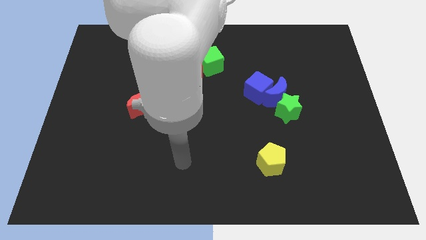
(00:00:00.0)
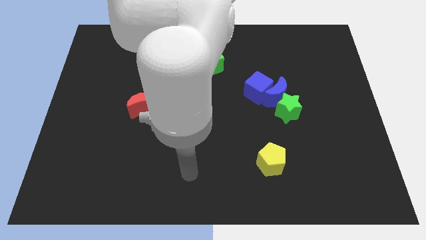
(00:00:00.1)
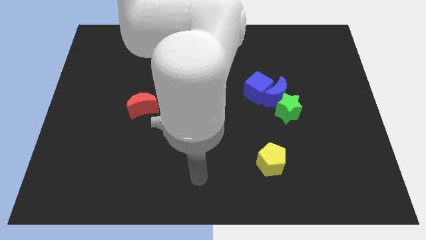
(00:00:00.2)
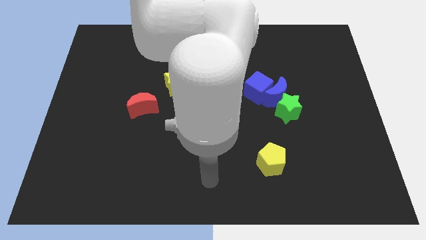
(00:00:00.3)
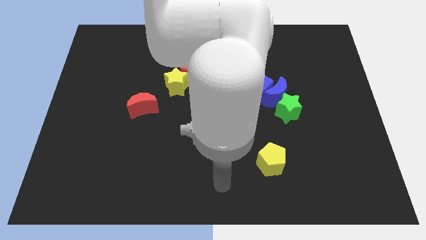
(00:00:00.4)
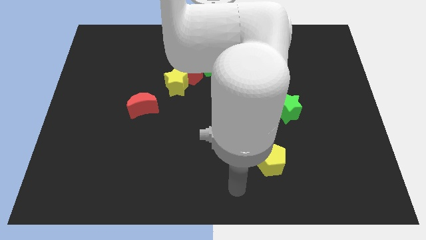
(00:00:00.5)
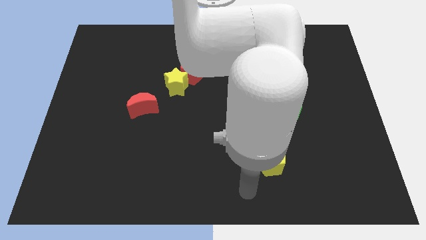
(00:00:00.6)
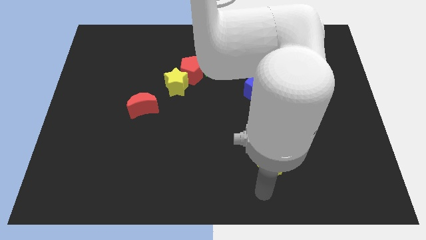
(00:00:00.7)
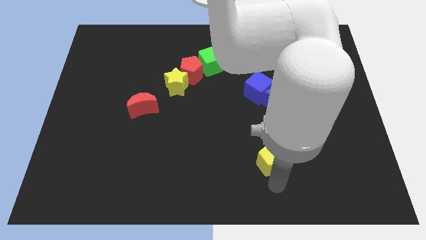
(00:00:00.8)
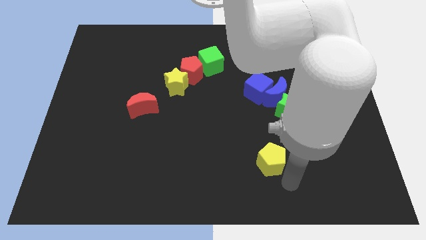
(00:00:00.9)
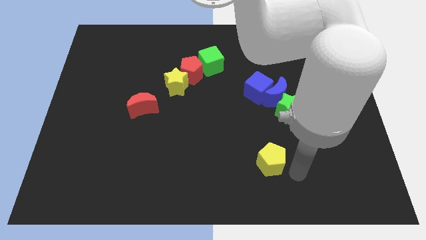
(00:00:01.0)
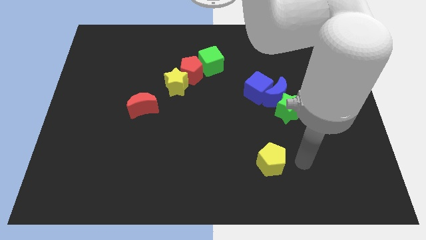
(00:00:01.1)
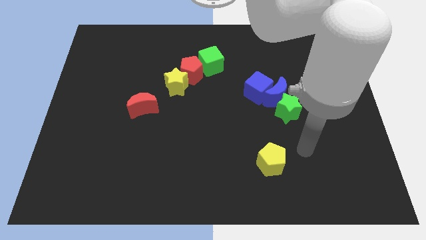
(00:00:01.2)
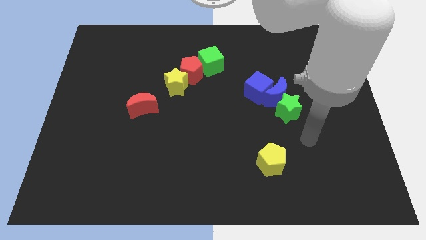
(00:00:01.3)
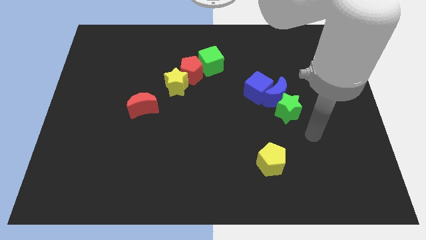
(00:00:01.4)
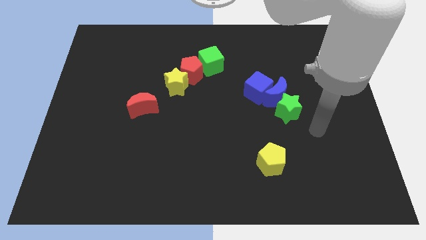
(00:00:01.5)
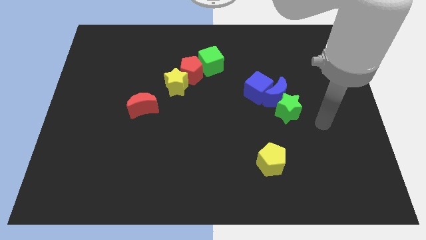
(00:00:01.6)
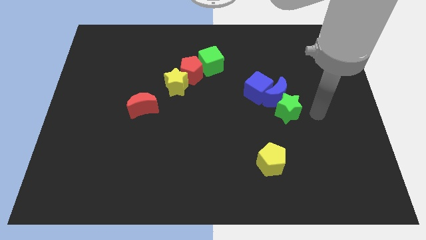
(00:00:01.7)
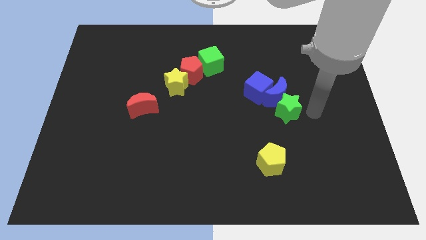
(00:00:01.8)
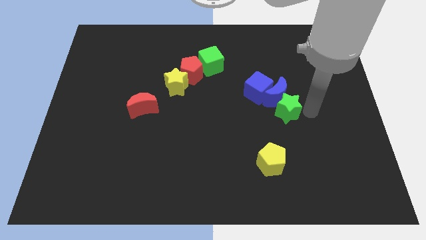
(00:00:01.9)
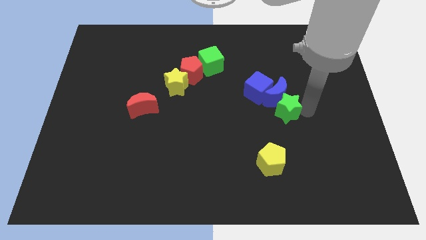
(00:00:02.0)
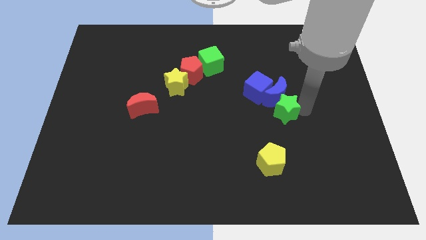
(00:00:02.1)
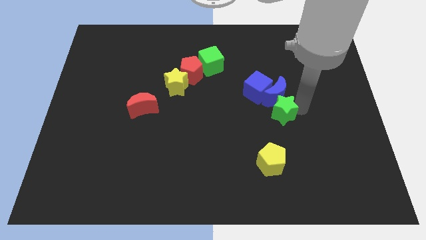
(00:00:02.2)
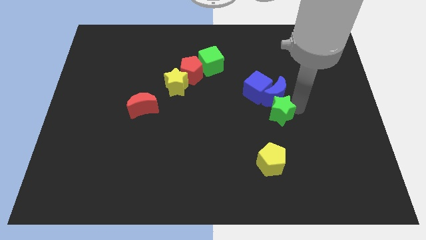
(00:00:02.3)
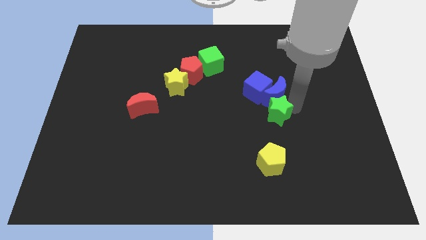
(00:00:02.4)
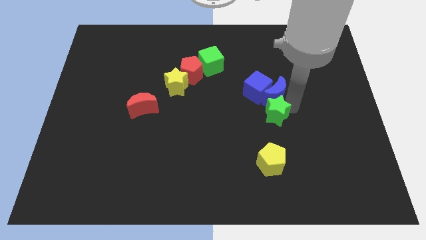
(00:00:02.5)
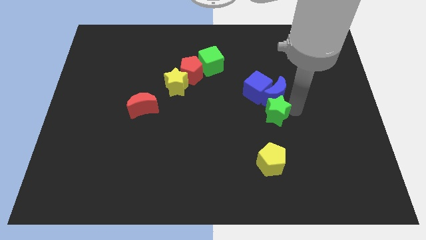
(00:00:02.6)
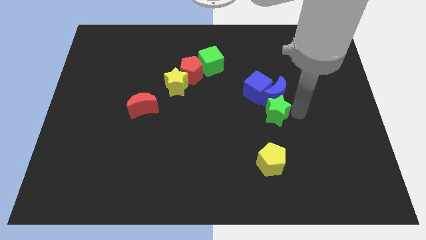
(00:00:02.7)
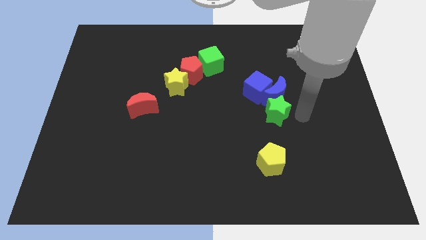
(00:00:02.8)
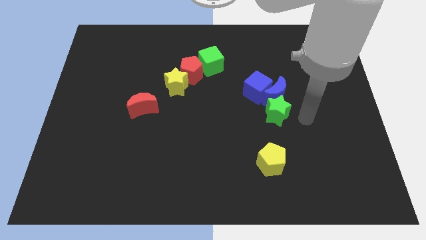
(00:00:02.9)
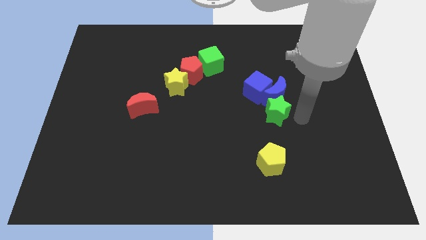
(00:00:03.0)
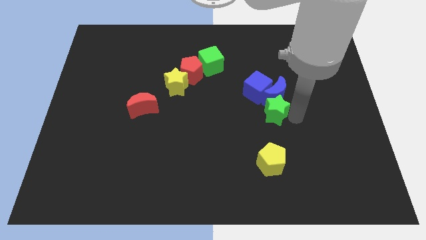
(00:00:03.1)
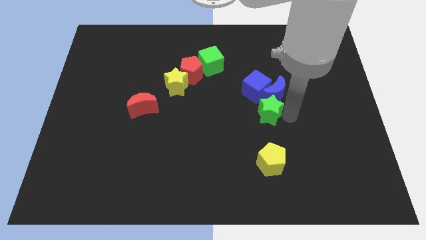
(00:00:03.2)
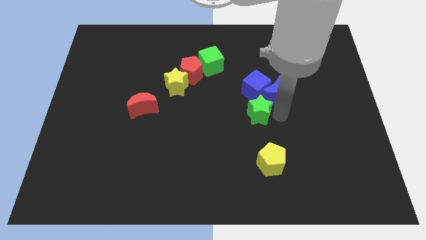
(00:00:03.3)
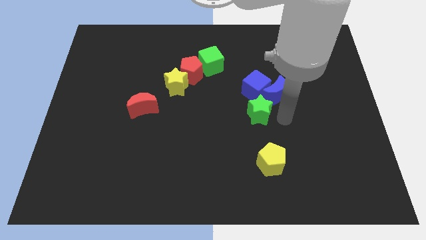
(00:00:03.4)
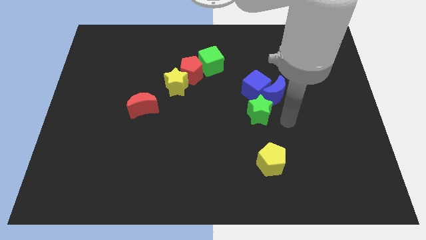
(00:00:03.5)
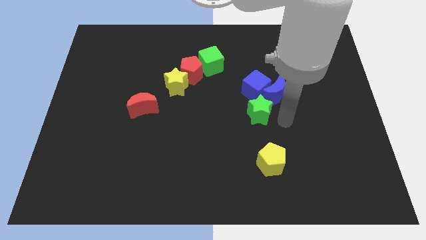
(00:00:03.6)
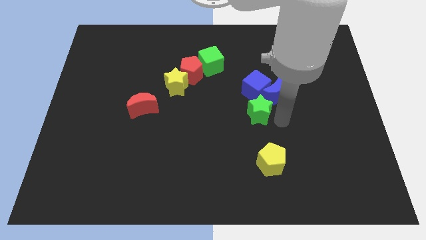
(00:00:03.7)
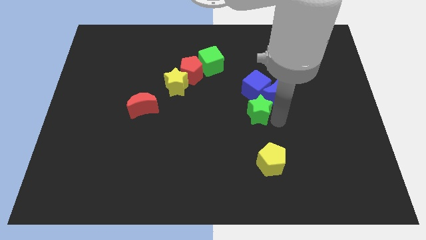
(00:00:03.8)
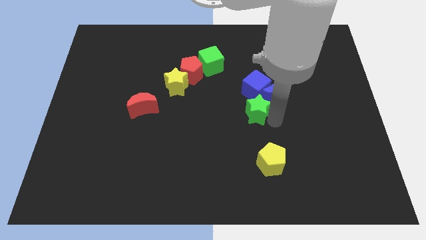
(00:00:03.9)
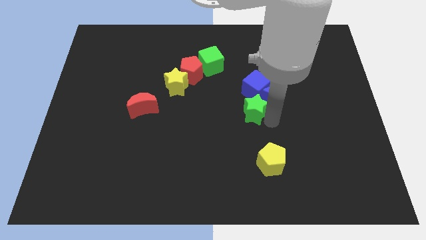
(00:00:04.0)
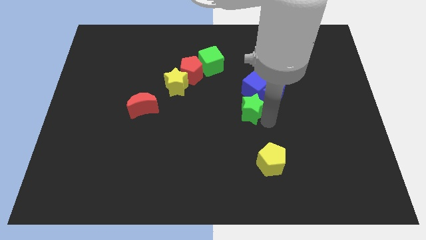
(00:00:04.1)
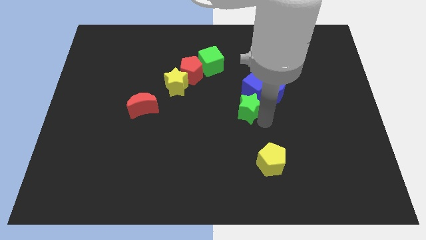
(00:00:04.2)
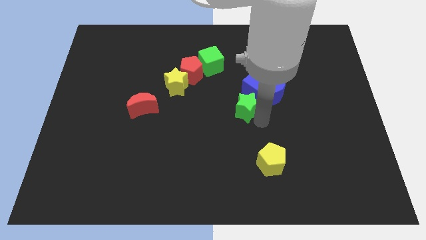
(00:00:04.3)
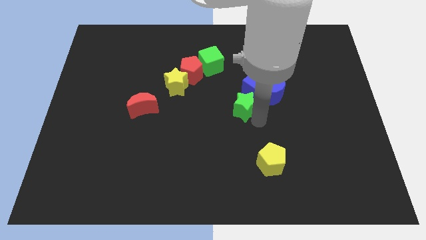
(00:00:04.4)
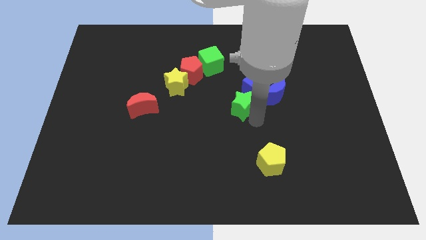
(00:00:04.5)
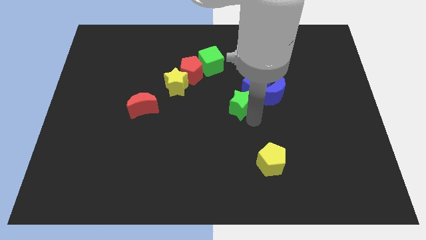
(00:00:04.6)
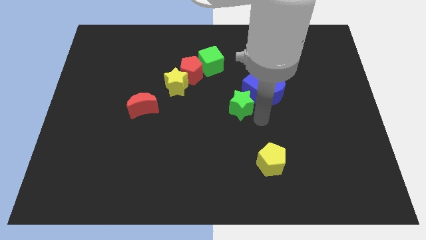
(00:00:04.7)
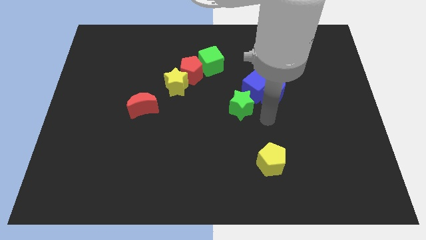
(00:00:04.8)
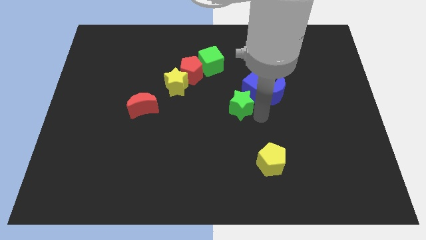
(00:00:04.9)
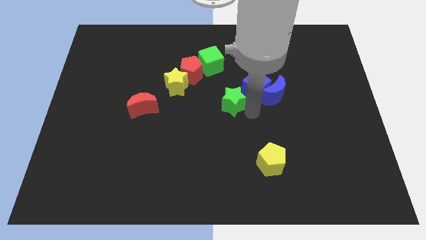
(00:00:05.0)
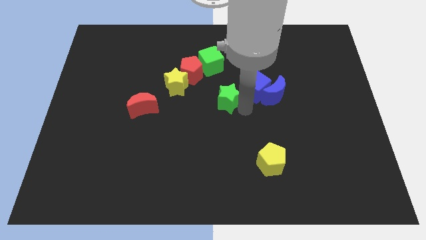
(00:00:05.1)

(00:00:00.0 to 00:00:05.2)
slide the green star below the green cube

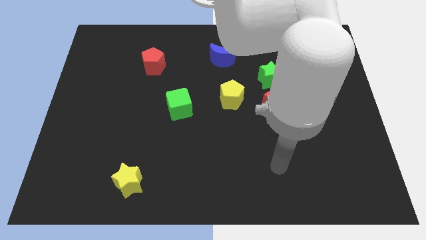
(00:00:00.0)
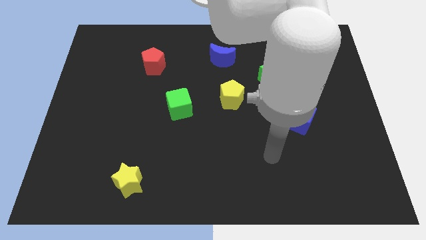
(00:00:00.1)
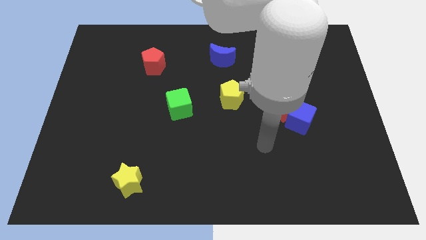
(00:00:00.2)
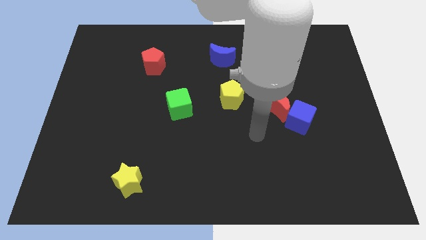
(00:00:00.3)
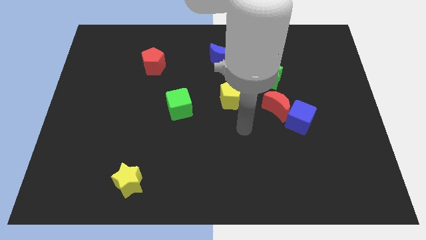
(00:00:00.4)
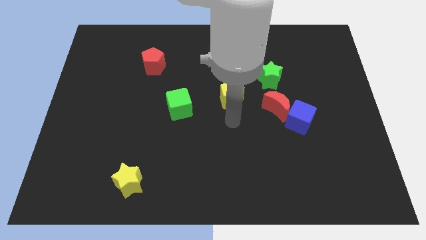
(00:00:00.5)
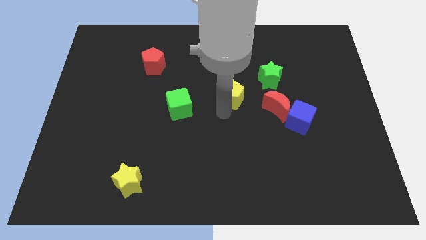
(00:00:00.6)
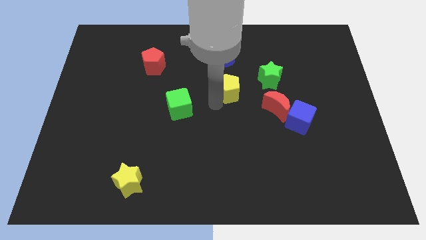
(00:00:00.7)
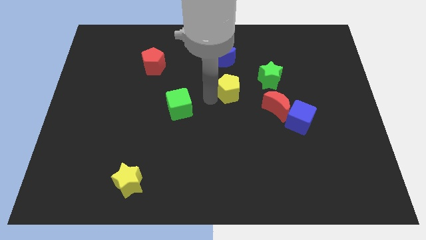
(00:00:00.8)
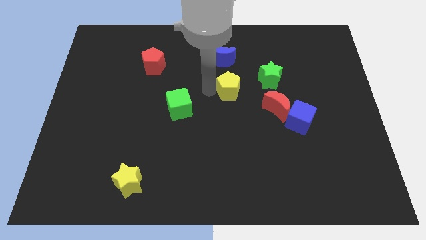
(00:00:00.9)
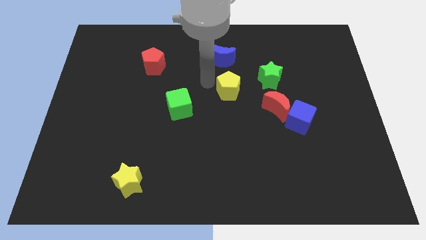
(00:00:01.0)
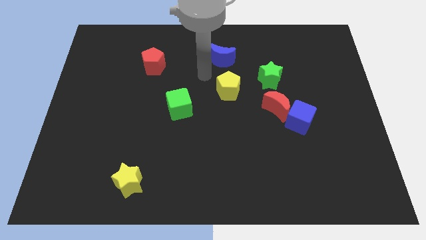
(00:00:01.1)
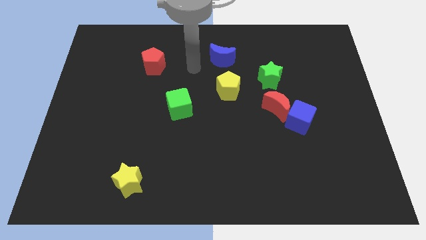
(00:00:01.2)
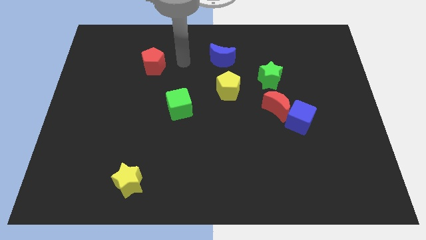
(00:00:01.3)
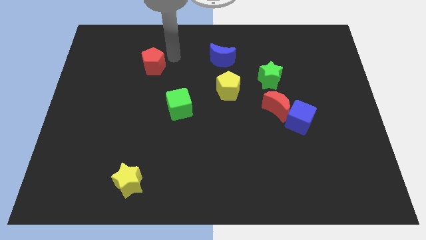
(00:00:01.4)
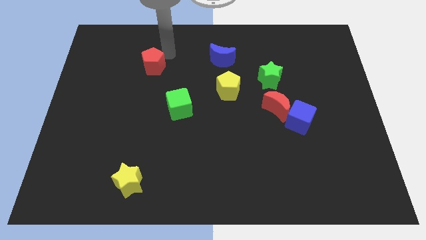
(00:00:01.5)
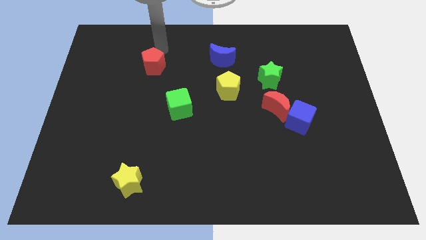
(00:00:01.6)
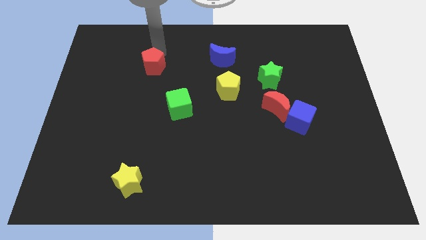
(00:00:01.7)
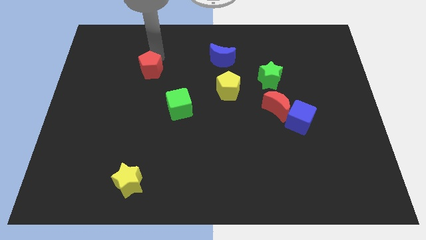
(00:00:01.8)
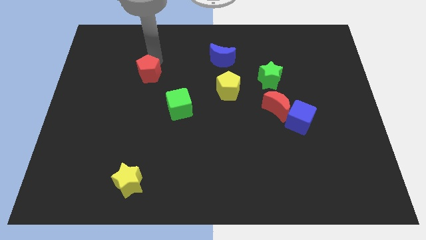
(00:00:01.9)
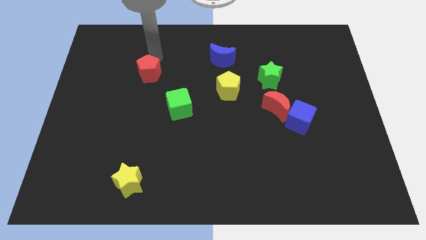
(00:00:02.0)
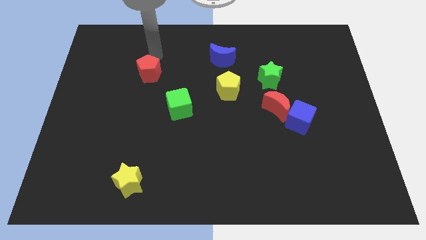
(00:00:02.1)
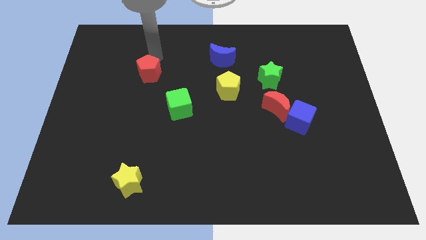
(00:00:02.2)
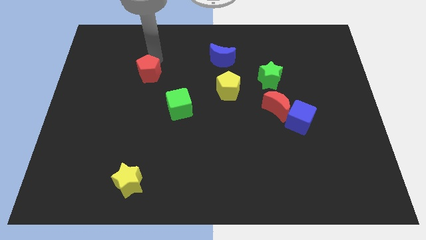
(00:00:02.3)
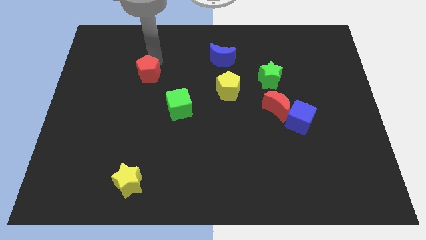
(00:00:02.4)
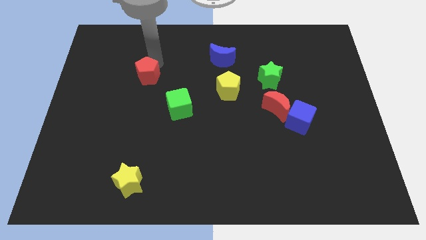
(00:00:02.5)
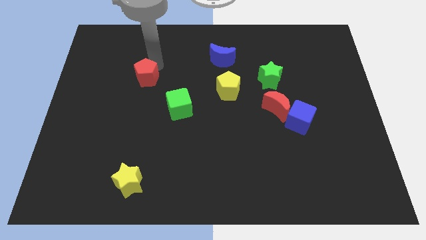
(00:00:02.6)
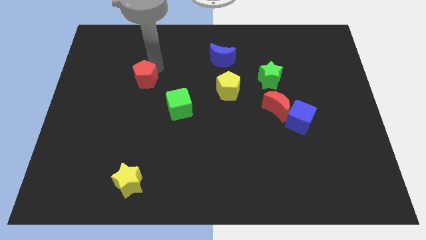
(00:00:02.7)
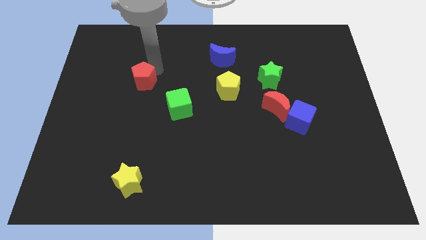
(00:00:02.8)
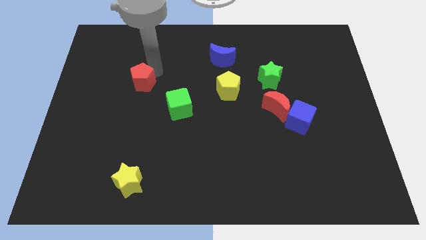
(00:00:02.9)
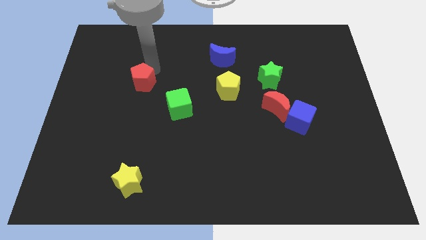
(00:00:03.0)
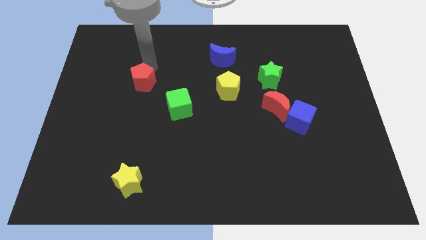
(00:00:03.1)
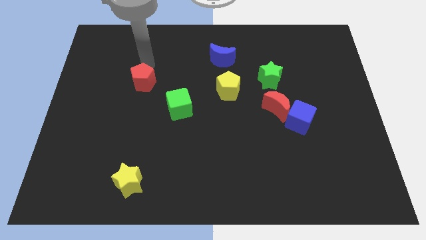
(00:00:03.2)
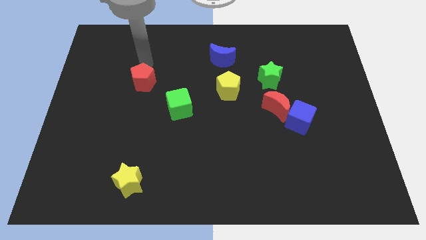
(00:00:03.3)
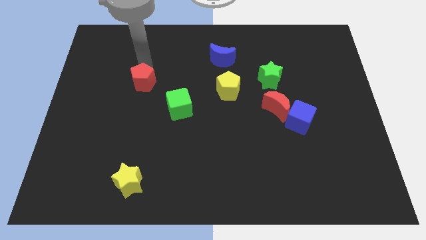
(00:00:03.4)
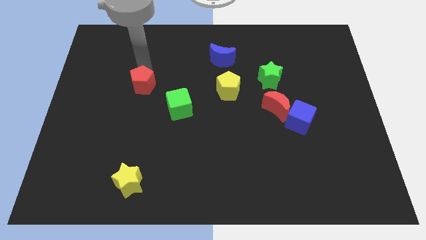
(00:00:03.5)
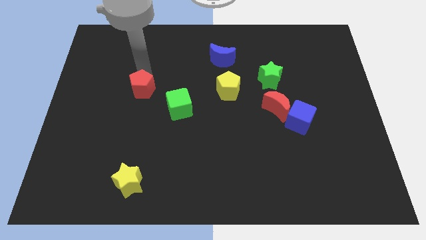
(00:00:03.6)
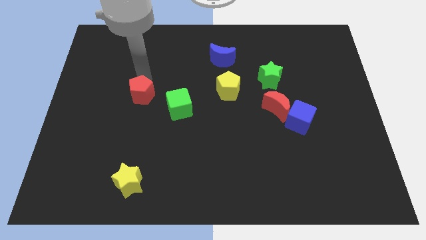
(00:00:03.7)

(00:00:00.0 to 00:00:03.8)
move the red pentagon to the left of the green cube
